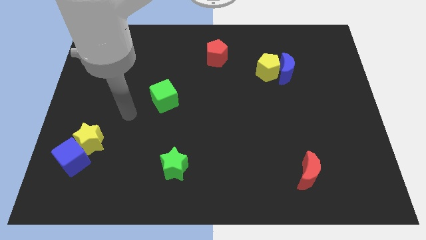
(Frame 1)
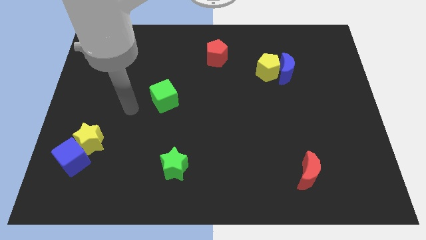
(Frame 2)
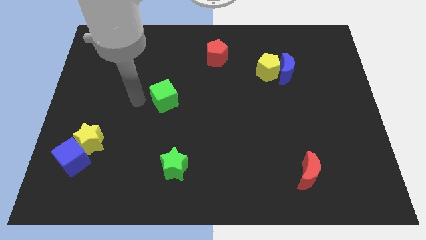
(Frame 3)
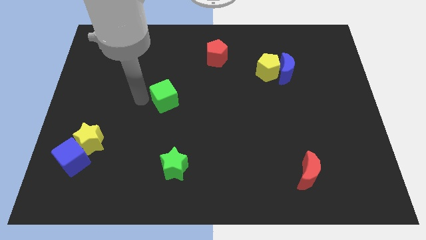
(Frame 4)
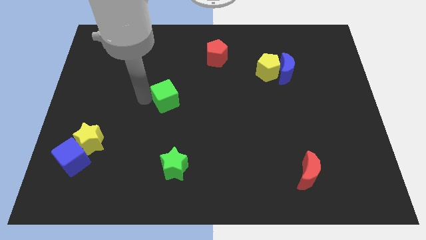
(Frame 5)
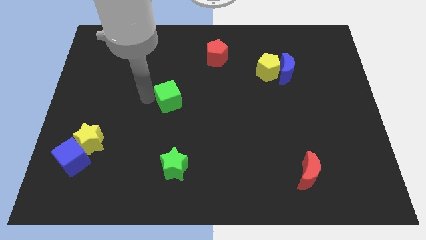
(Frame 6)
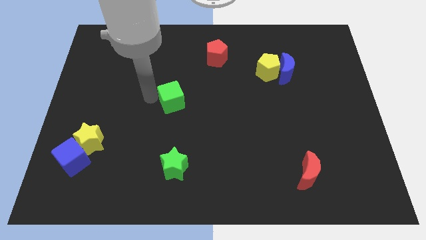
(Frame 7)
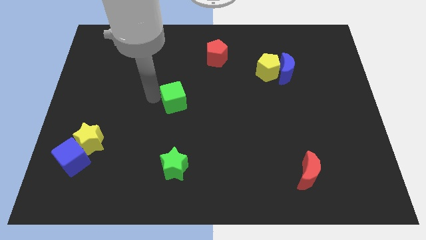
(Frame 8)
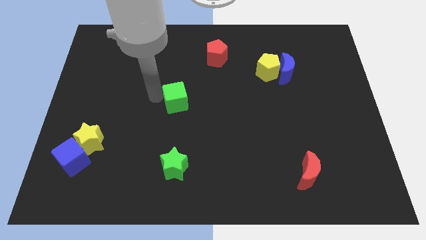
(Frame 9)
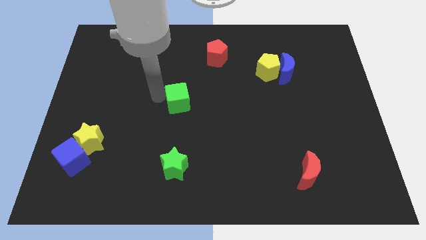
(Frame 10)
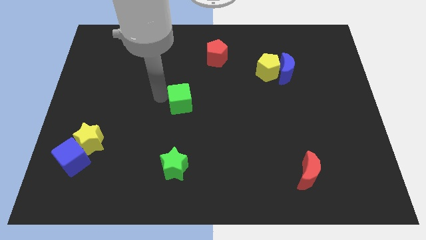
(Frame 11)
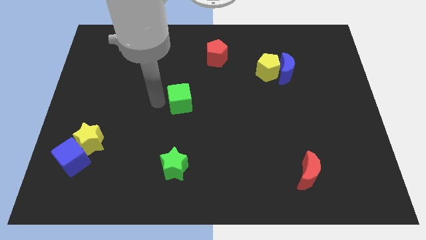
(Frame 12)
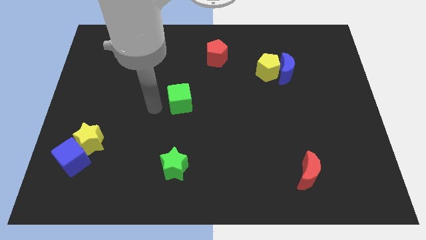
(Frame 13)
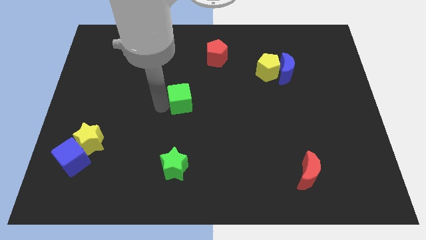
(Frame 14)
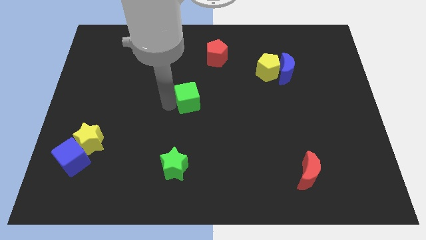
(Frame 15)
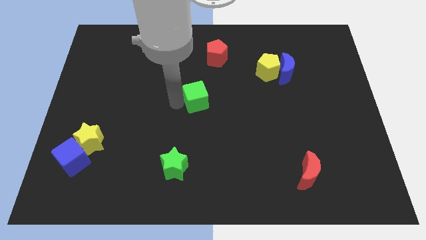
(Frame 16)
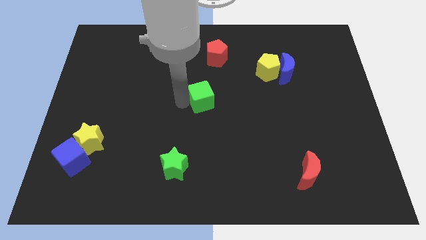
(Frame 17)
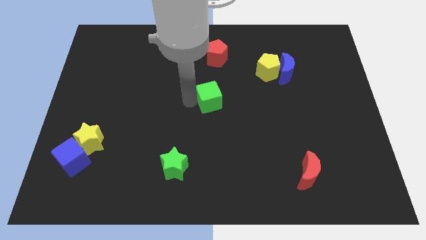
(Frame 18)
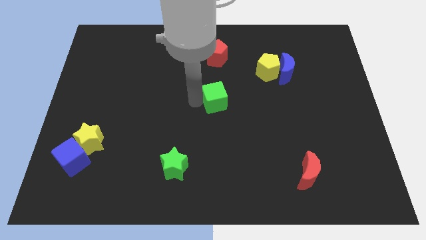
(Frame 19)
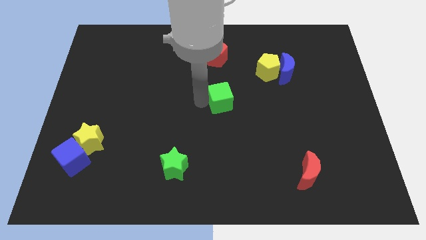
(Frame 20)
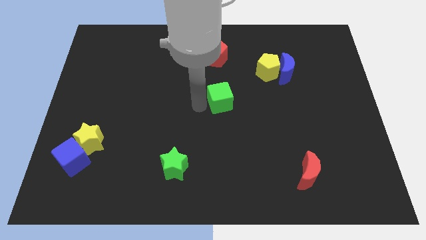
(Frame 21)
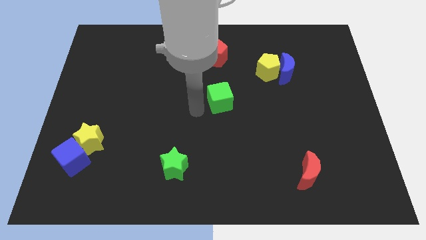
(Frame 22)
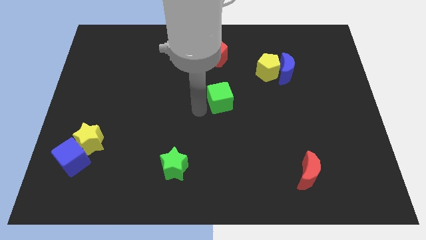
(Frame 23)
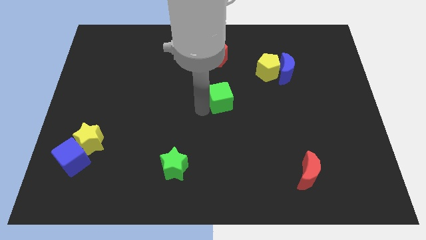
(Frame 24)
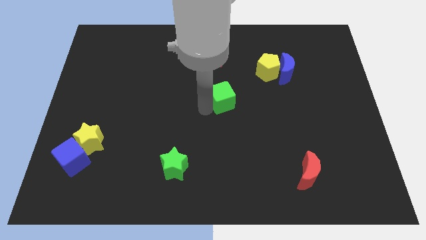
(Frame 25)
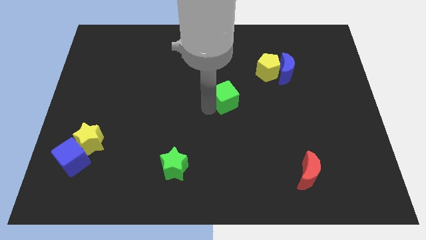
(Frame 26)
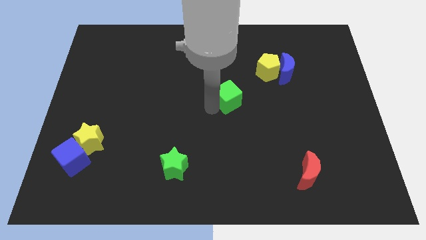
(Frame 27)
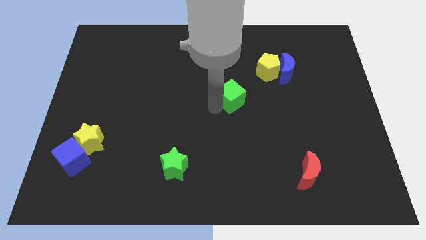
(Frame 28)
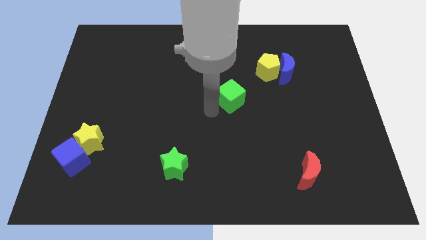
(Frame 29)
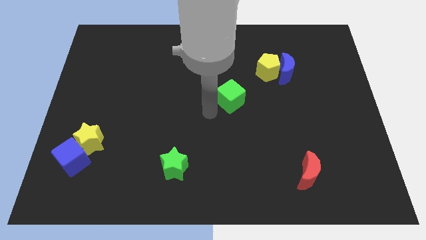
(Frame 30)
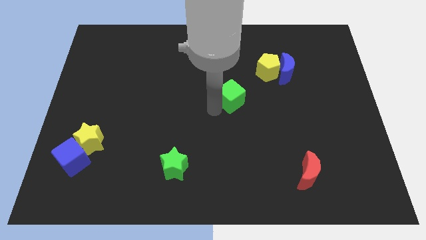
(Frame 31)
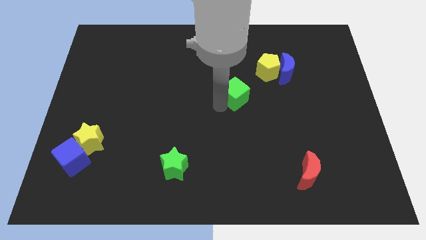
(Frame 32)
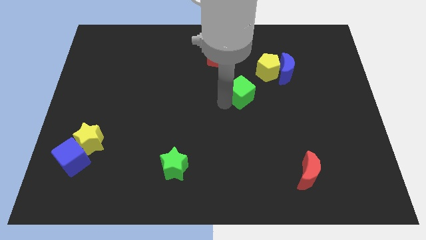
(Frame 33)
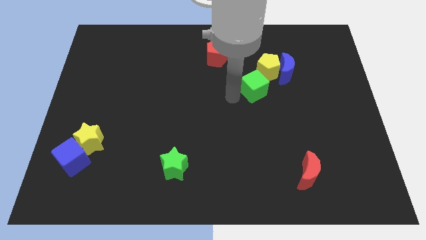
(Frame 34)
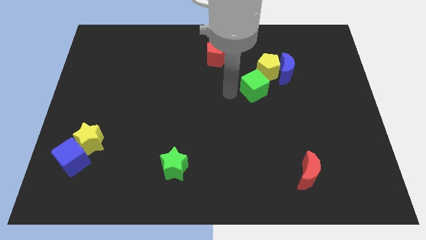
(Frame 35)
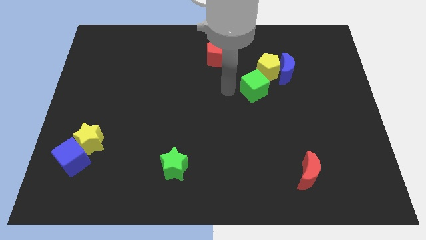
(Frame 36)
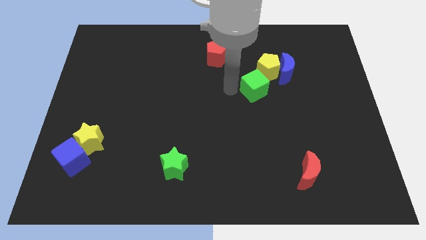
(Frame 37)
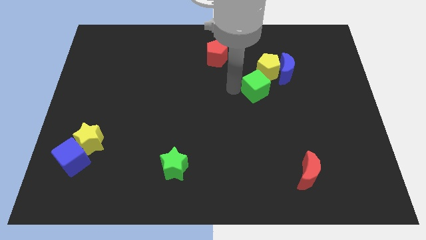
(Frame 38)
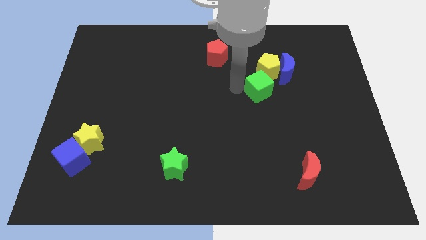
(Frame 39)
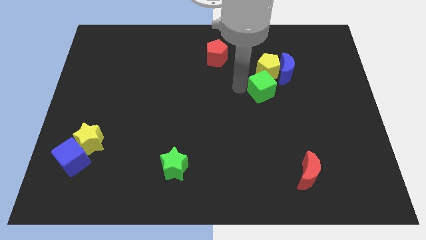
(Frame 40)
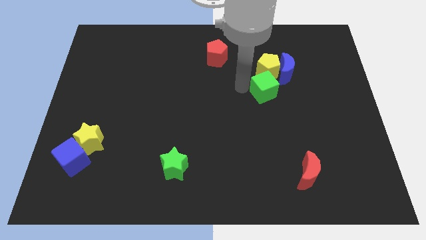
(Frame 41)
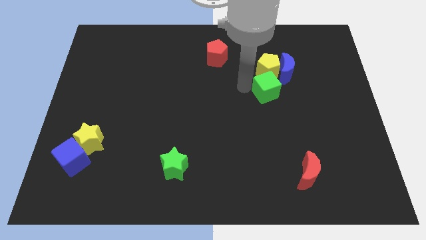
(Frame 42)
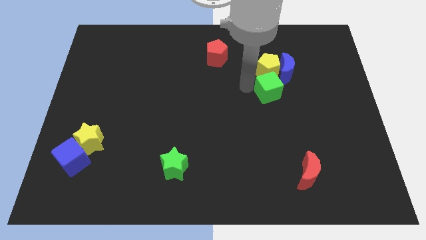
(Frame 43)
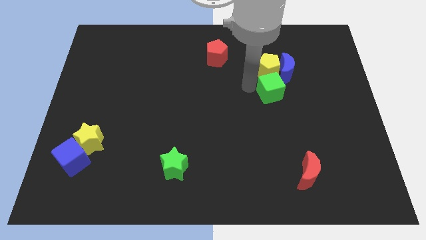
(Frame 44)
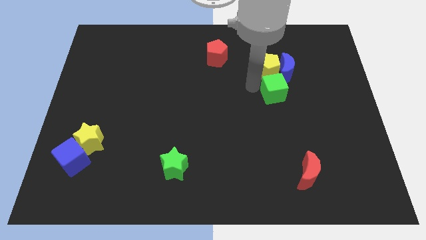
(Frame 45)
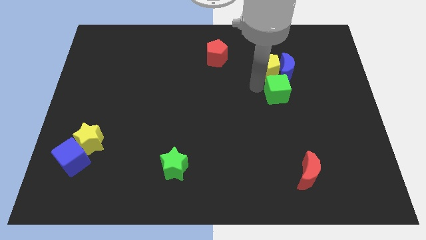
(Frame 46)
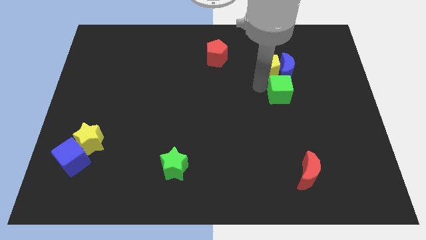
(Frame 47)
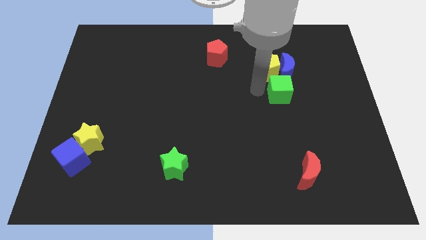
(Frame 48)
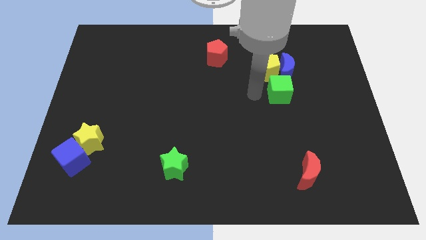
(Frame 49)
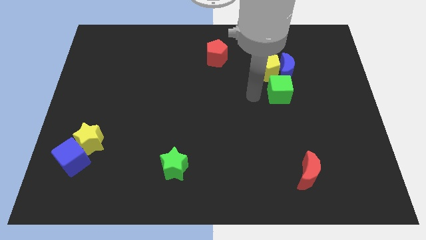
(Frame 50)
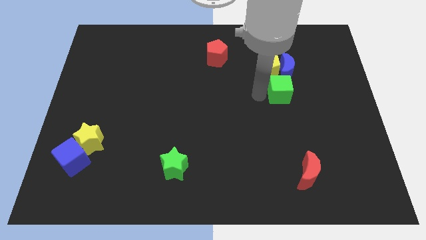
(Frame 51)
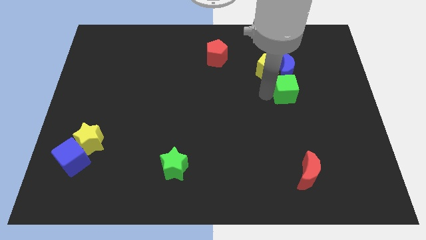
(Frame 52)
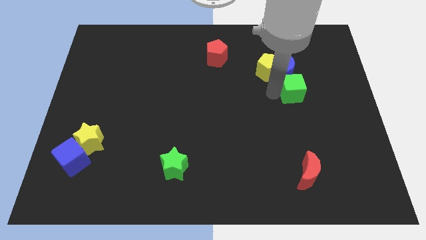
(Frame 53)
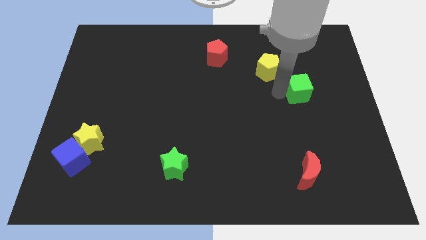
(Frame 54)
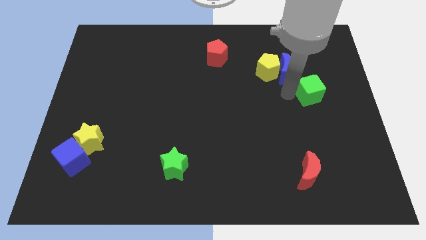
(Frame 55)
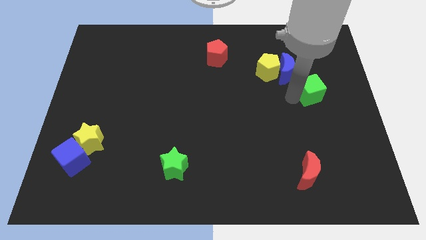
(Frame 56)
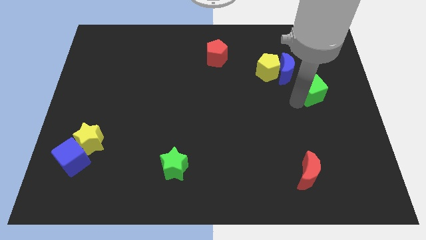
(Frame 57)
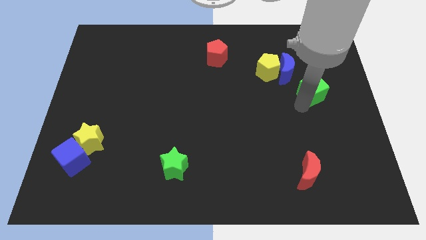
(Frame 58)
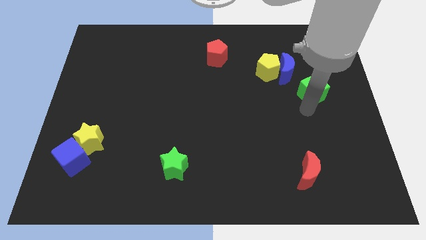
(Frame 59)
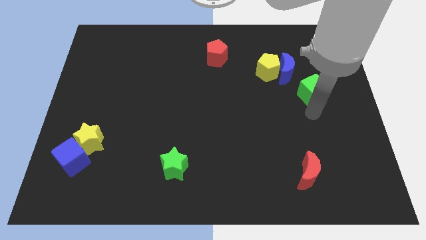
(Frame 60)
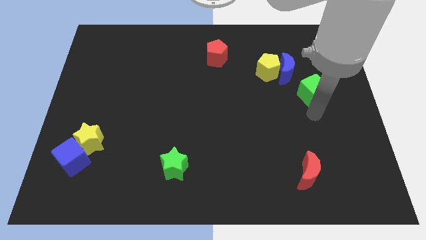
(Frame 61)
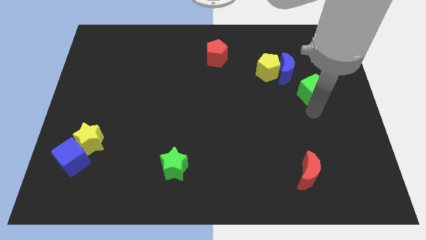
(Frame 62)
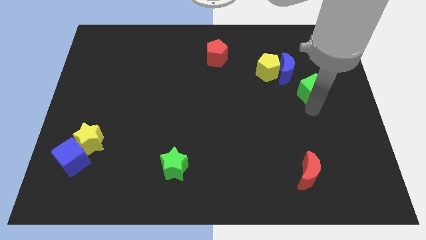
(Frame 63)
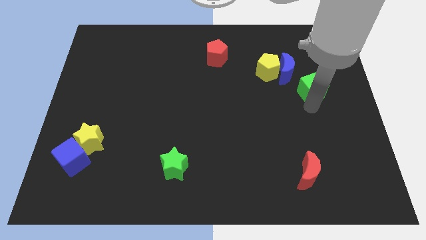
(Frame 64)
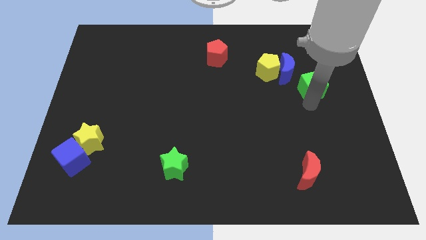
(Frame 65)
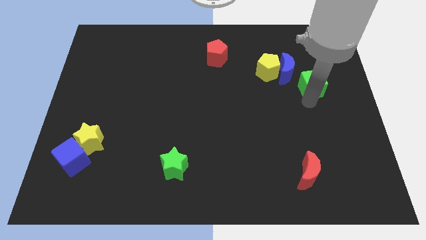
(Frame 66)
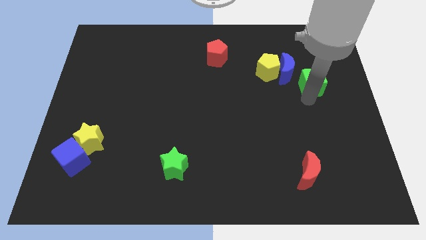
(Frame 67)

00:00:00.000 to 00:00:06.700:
slide the green cube just right of the yellow pentagon
